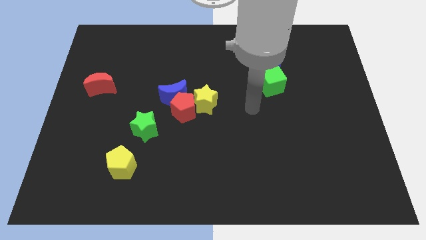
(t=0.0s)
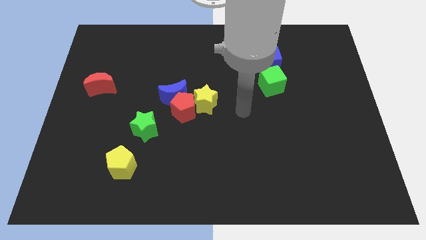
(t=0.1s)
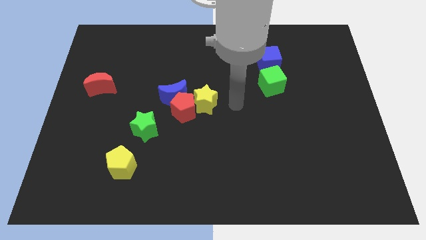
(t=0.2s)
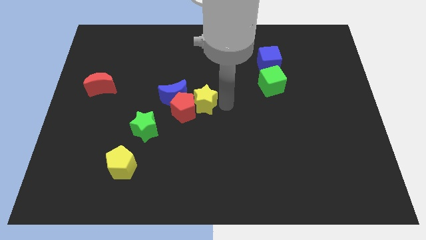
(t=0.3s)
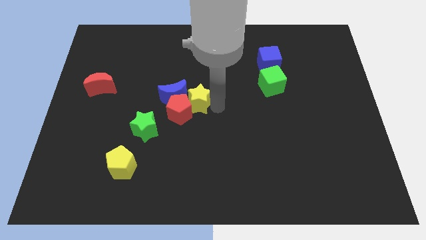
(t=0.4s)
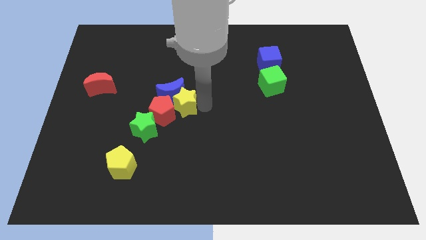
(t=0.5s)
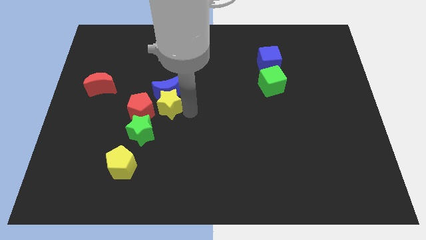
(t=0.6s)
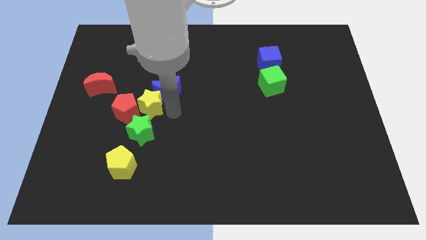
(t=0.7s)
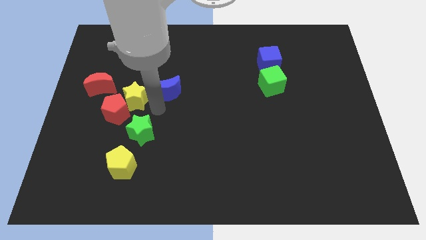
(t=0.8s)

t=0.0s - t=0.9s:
move the blue moon away from the red pentagon and yellow star

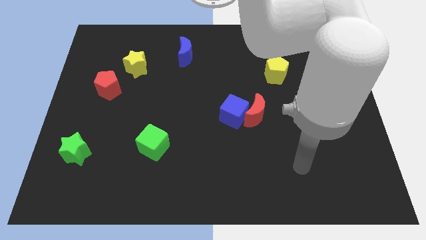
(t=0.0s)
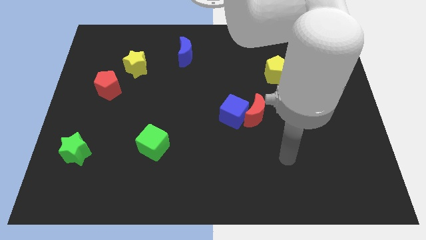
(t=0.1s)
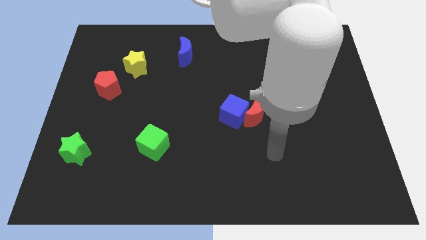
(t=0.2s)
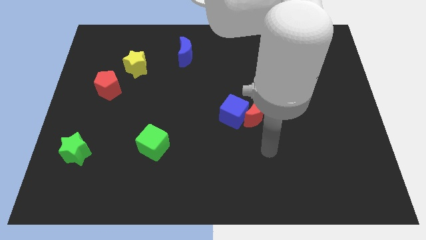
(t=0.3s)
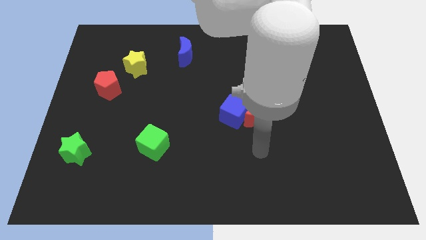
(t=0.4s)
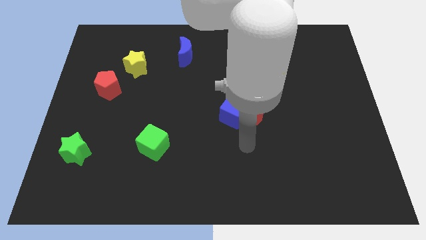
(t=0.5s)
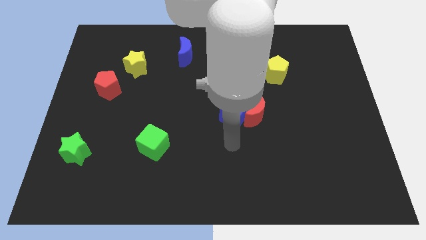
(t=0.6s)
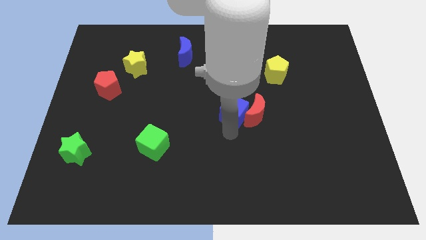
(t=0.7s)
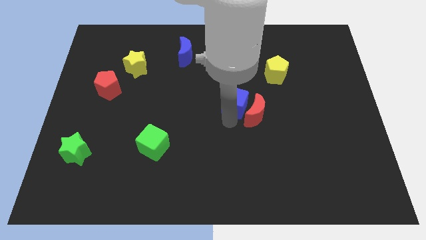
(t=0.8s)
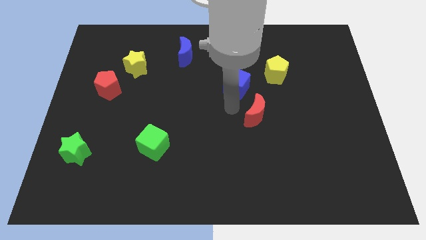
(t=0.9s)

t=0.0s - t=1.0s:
pull the red moon apart from the blue cube

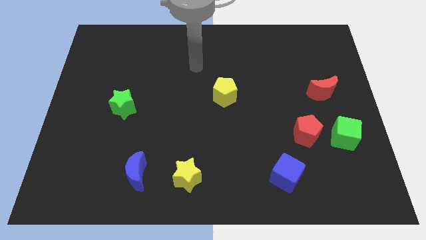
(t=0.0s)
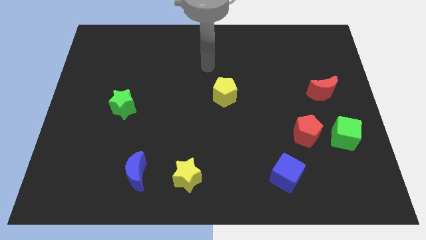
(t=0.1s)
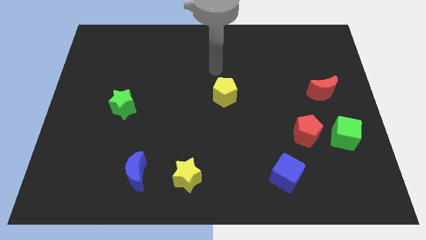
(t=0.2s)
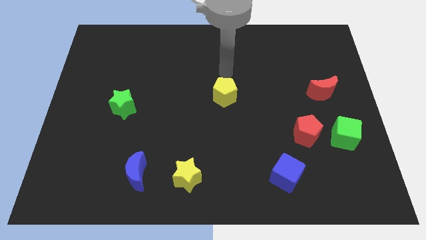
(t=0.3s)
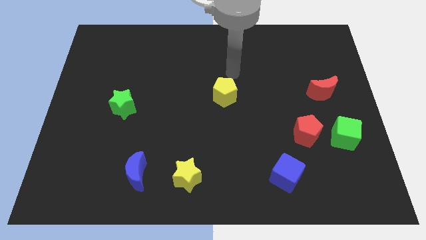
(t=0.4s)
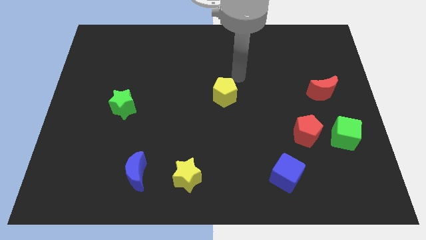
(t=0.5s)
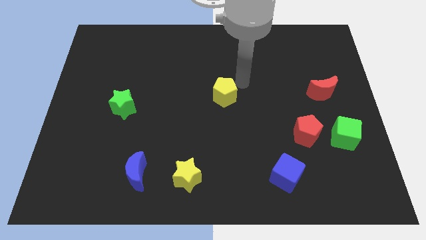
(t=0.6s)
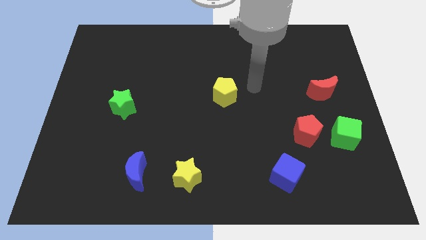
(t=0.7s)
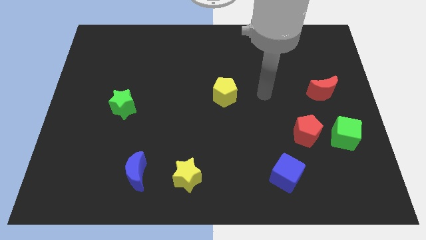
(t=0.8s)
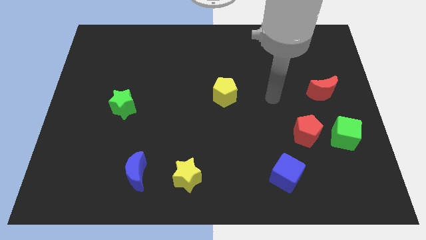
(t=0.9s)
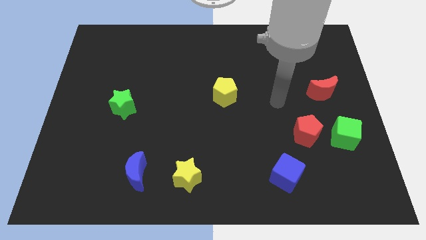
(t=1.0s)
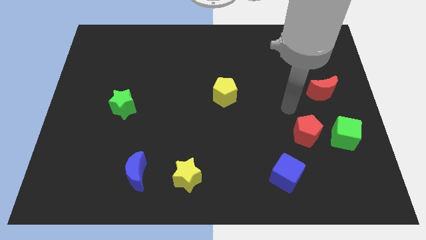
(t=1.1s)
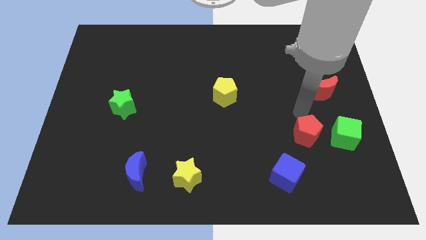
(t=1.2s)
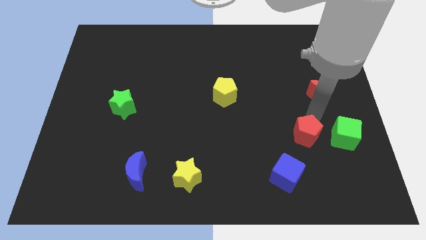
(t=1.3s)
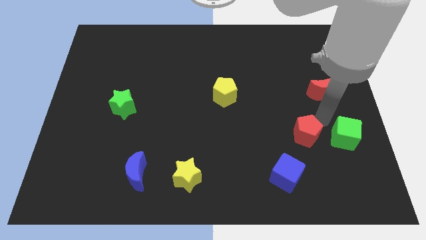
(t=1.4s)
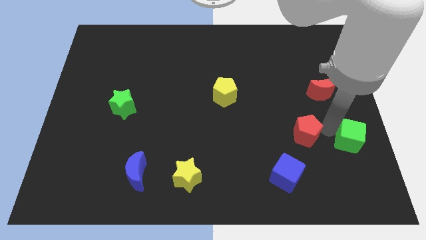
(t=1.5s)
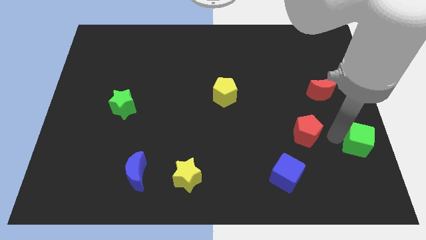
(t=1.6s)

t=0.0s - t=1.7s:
pull the red pentagon apart from the green cube

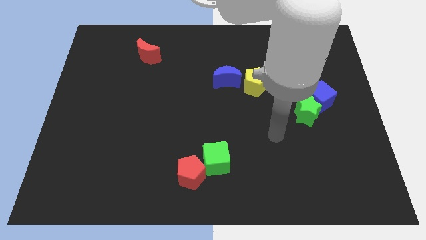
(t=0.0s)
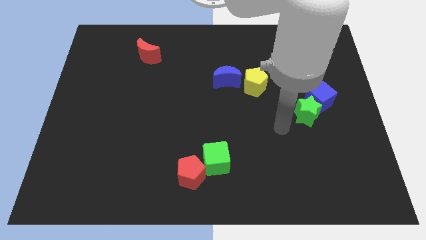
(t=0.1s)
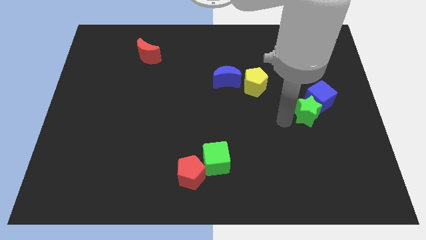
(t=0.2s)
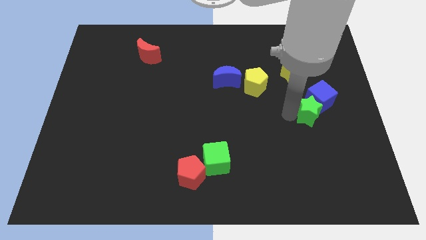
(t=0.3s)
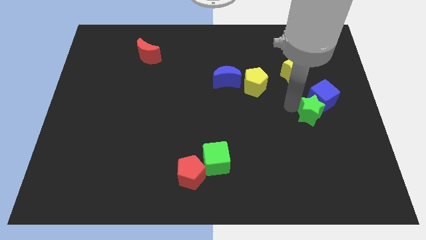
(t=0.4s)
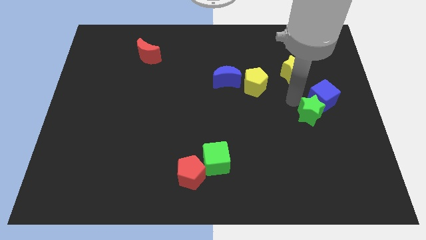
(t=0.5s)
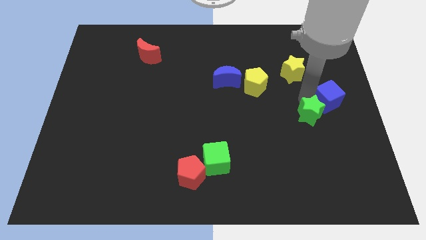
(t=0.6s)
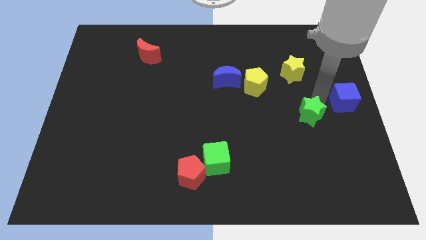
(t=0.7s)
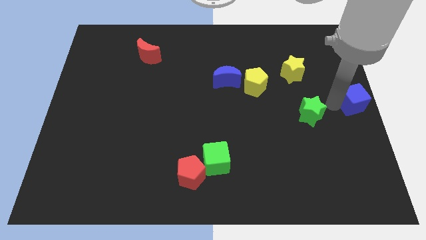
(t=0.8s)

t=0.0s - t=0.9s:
separate the green star from the blue cube

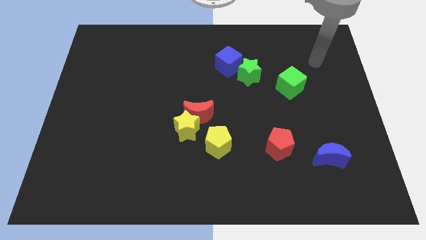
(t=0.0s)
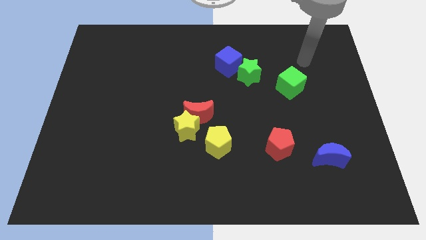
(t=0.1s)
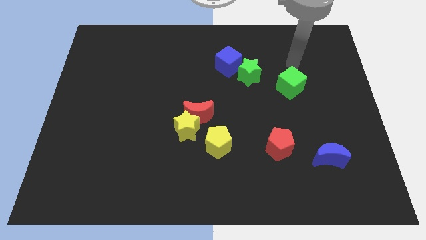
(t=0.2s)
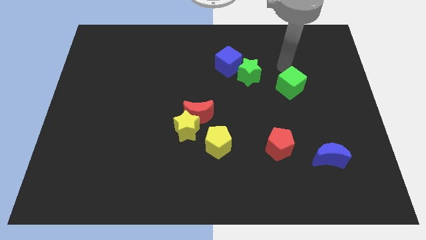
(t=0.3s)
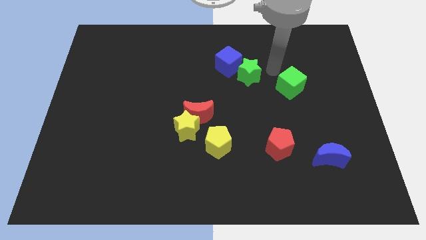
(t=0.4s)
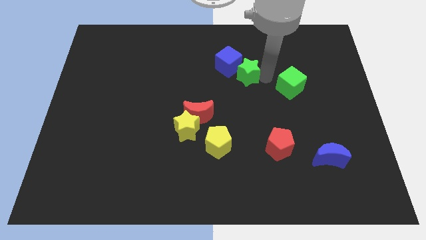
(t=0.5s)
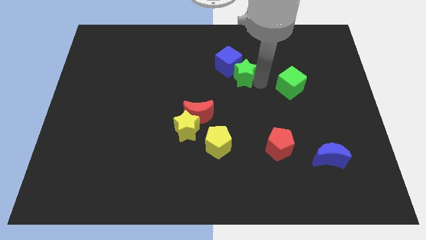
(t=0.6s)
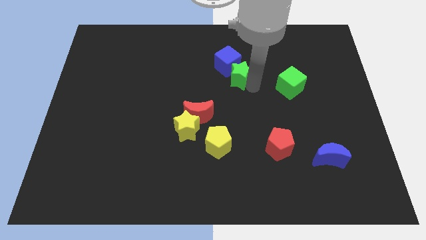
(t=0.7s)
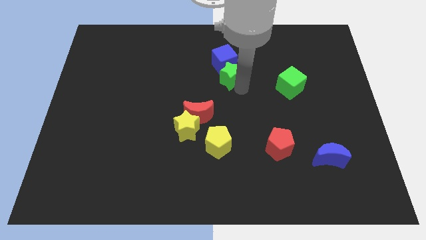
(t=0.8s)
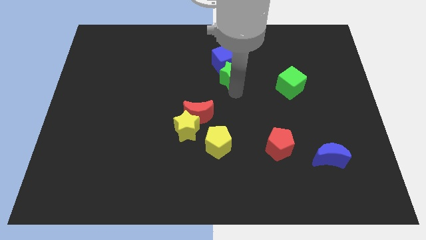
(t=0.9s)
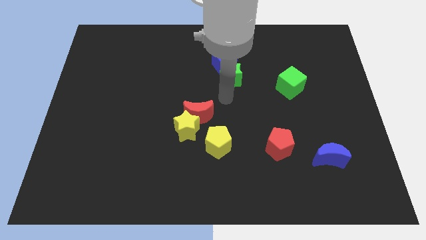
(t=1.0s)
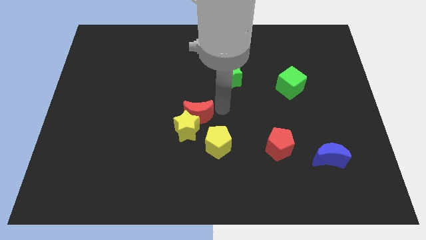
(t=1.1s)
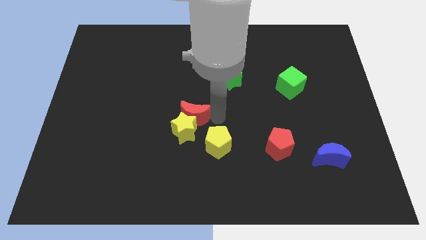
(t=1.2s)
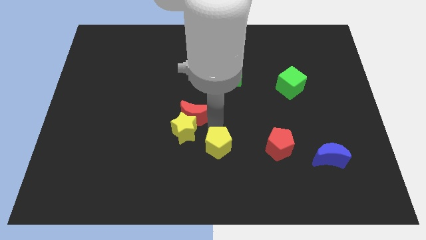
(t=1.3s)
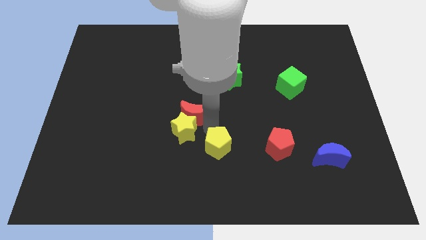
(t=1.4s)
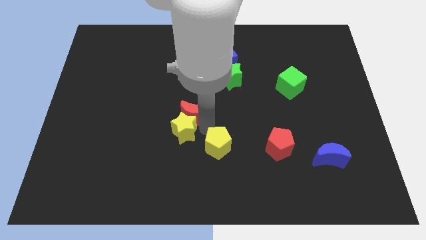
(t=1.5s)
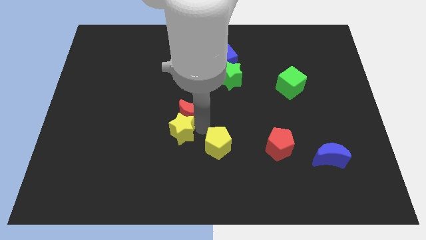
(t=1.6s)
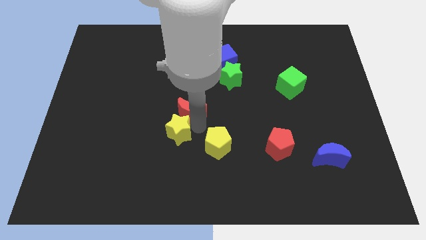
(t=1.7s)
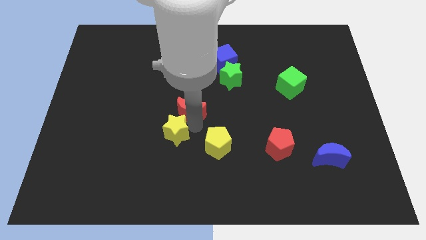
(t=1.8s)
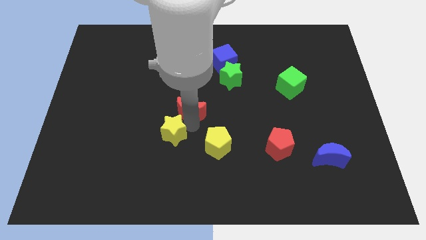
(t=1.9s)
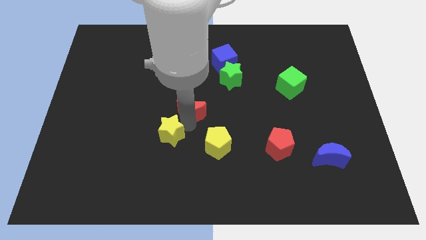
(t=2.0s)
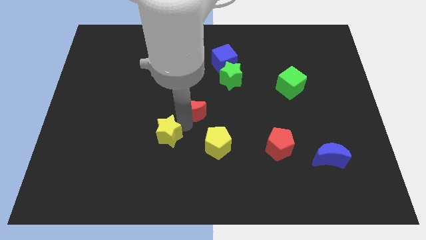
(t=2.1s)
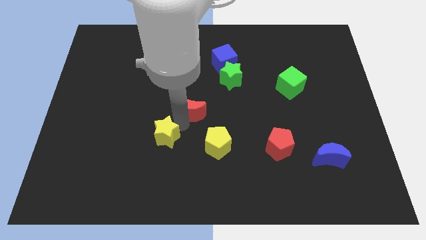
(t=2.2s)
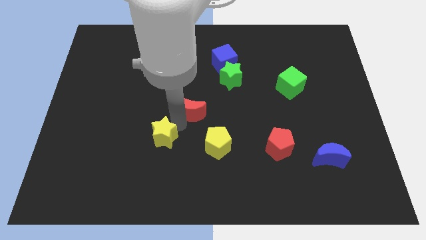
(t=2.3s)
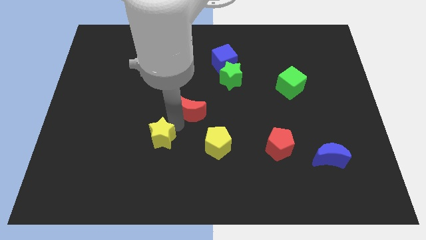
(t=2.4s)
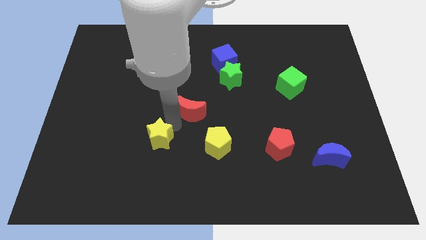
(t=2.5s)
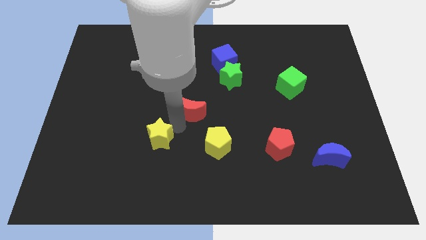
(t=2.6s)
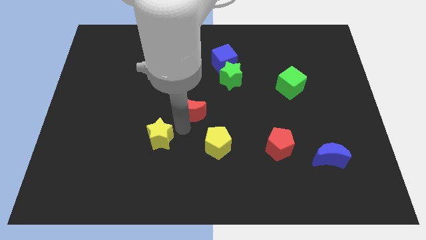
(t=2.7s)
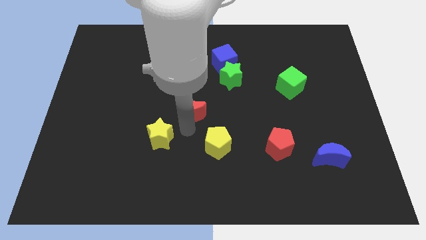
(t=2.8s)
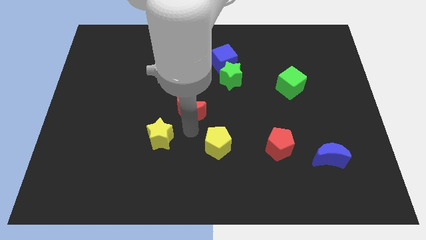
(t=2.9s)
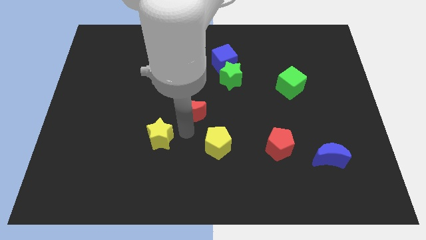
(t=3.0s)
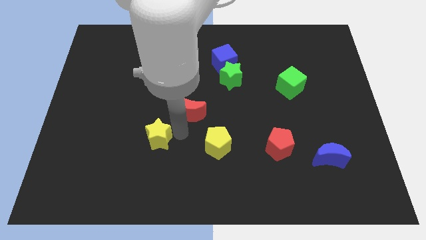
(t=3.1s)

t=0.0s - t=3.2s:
move the yellow star away from the red moon and yellow pentagon

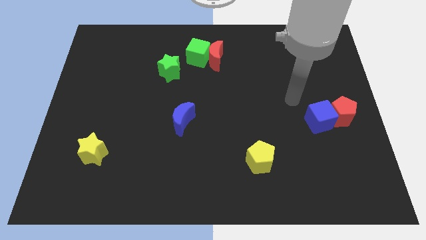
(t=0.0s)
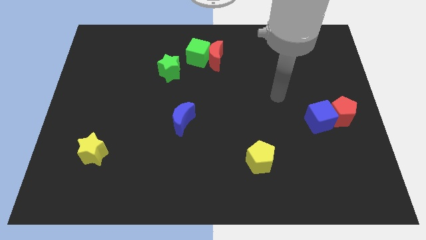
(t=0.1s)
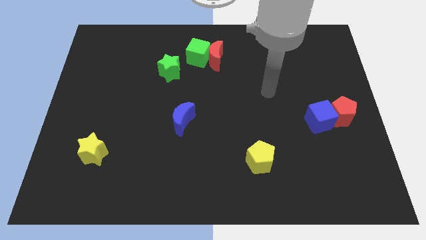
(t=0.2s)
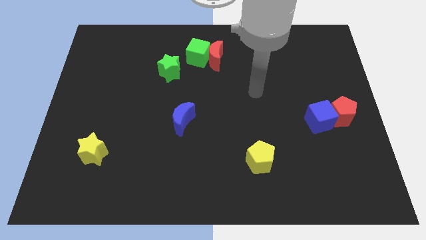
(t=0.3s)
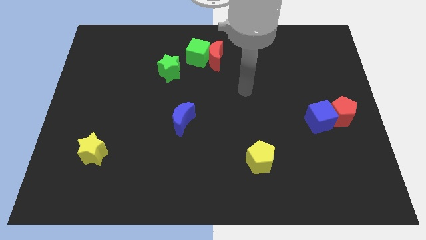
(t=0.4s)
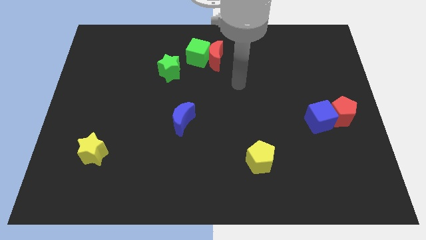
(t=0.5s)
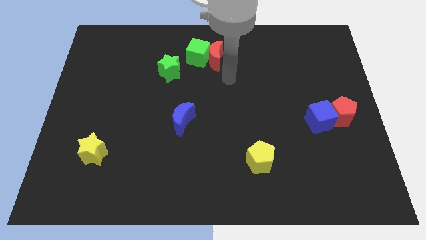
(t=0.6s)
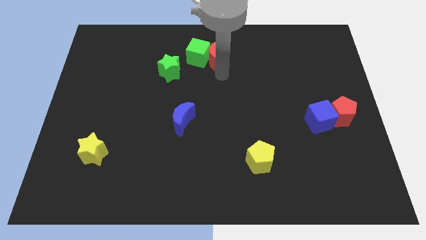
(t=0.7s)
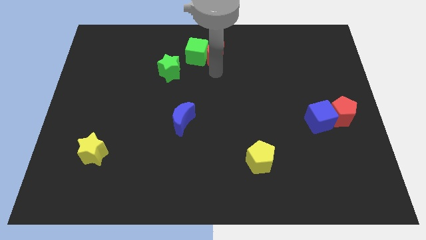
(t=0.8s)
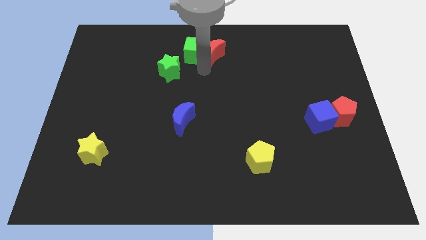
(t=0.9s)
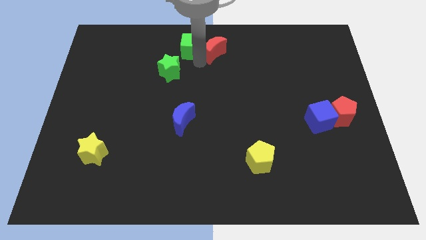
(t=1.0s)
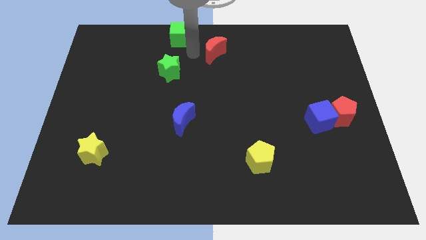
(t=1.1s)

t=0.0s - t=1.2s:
separate the red moon from the green cube

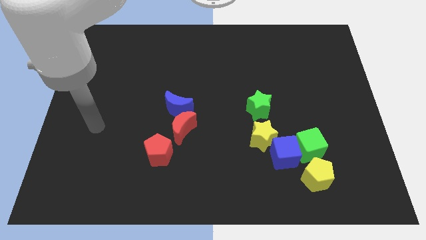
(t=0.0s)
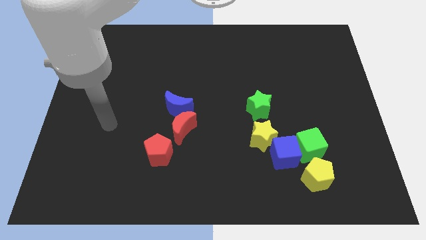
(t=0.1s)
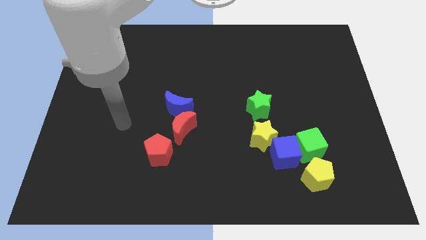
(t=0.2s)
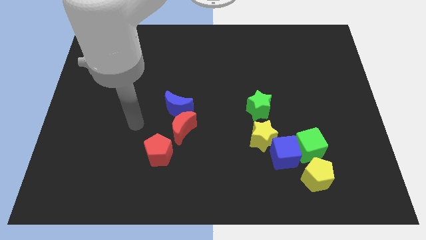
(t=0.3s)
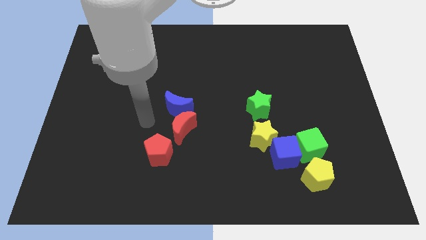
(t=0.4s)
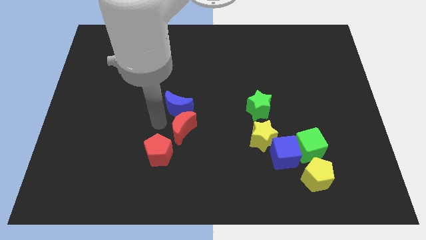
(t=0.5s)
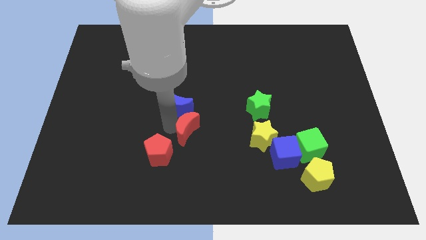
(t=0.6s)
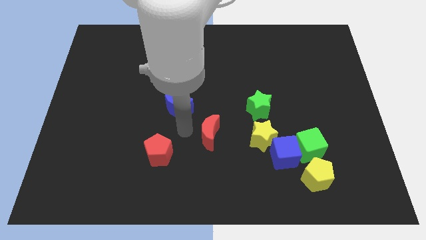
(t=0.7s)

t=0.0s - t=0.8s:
move the blue moon away from the red moon
